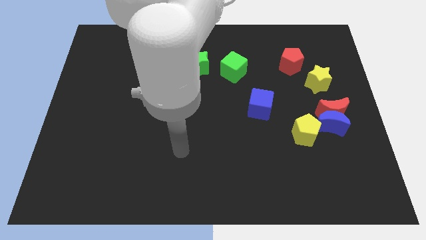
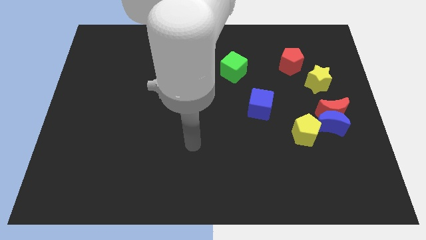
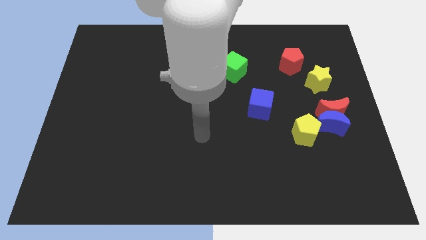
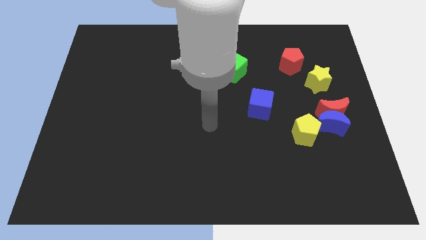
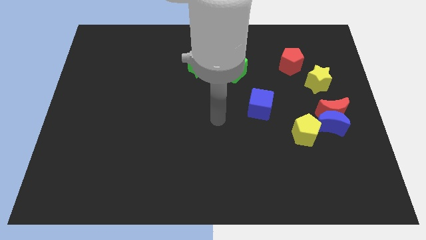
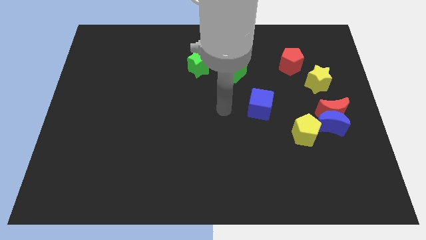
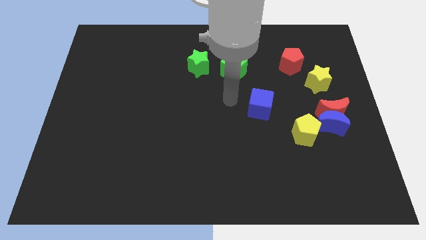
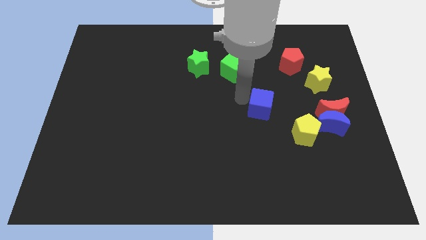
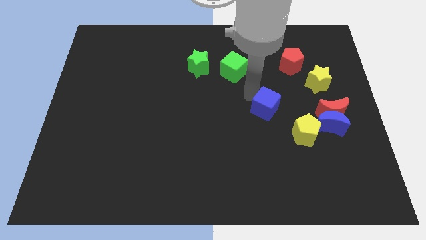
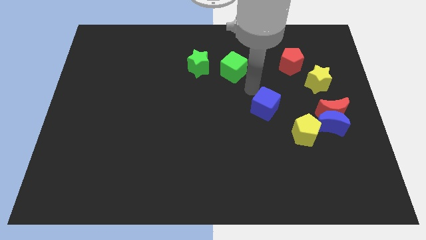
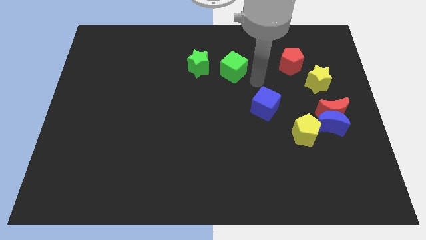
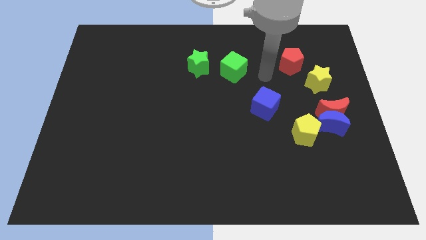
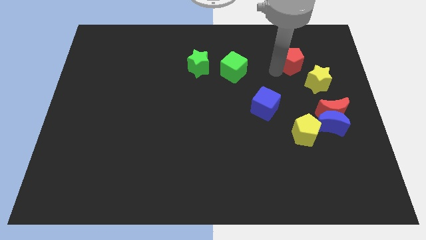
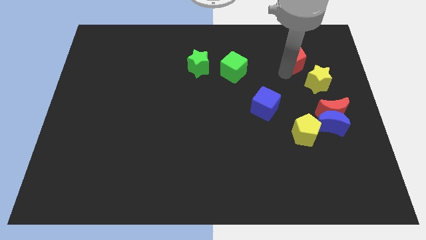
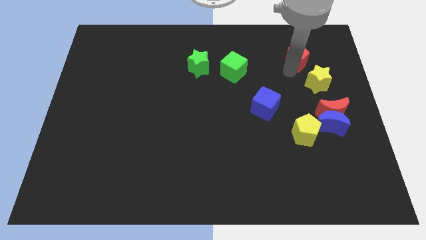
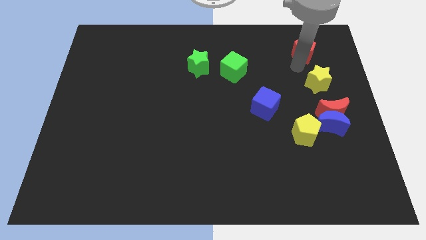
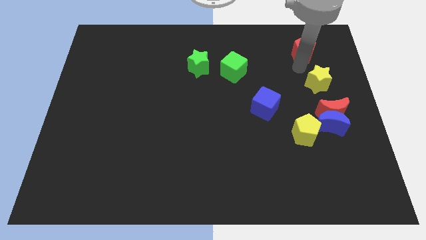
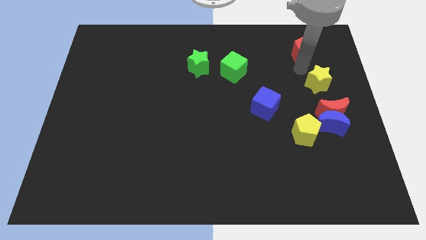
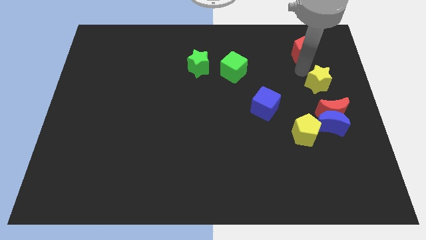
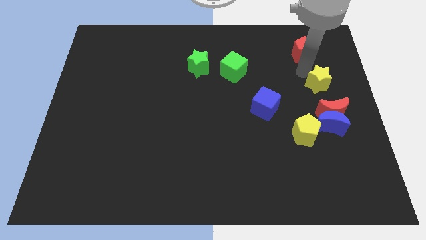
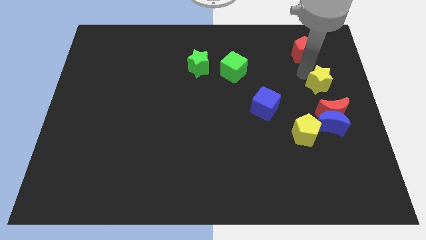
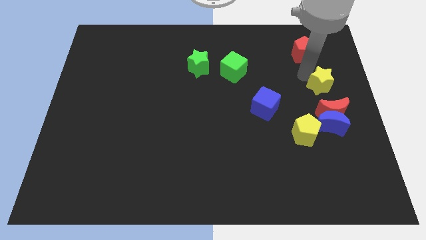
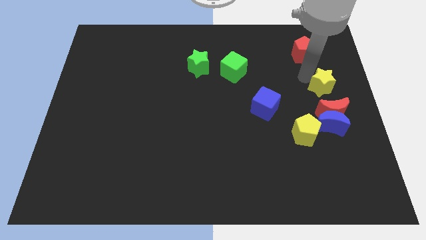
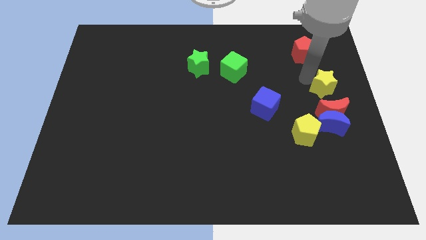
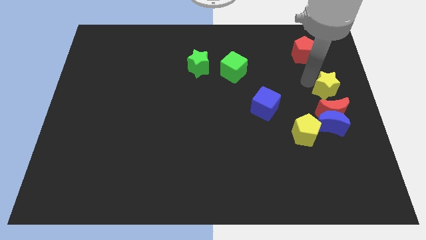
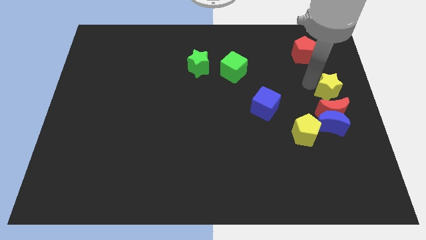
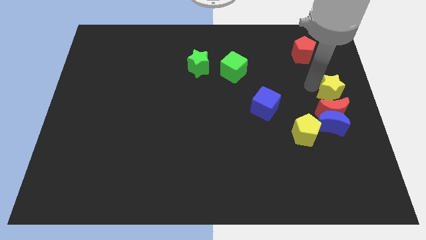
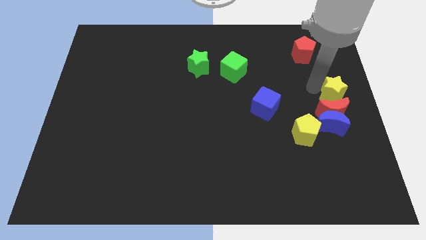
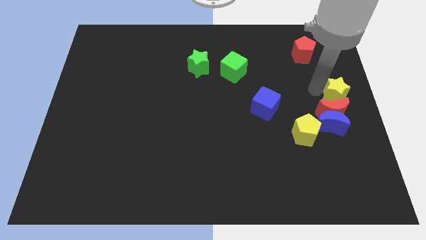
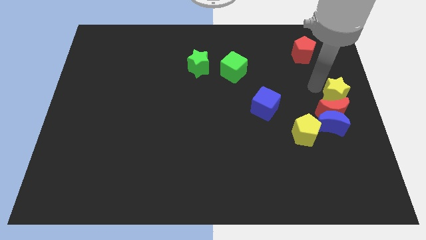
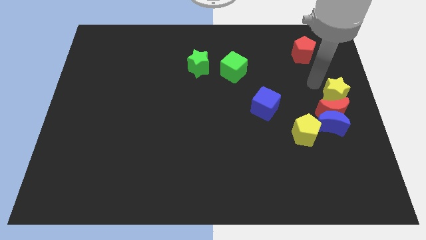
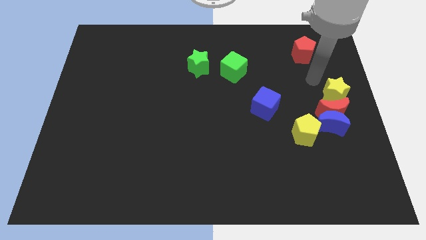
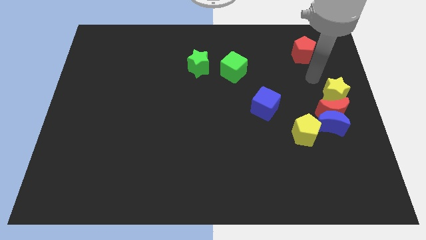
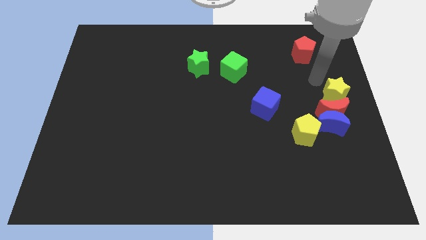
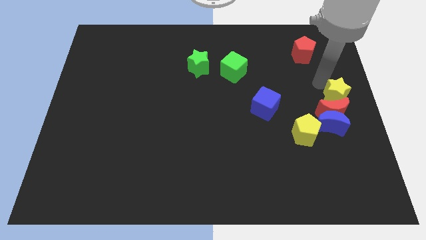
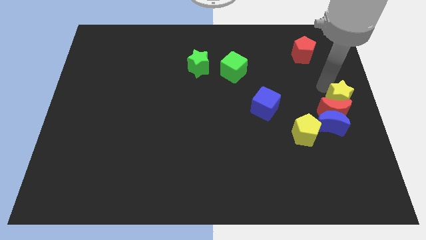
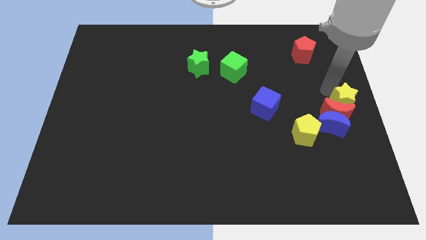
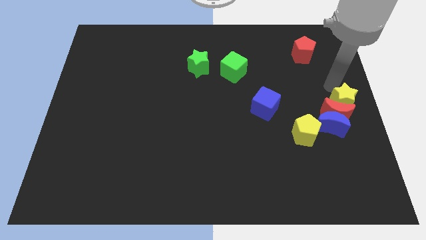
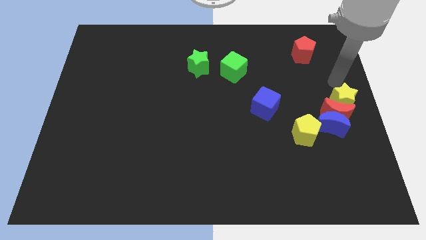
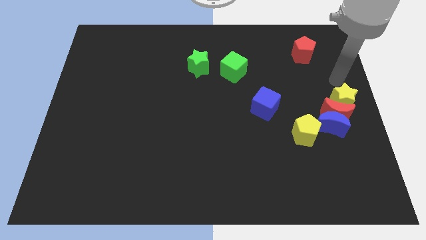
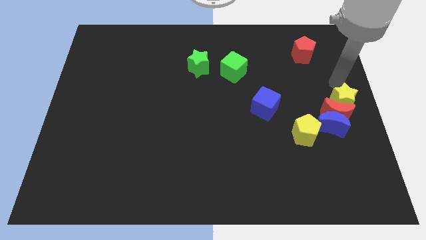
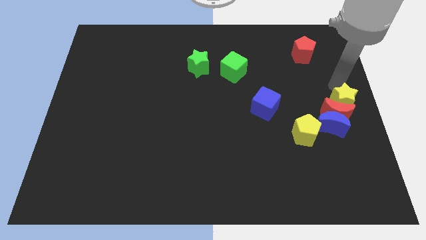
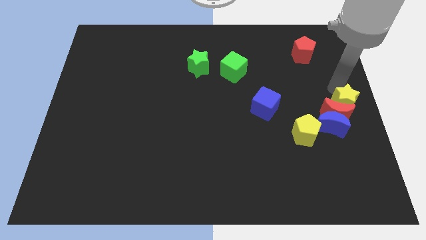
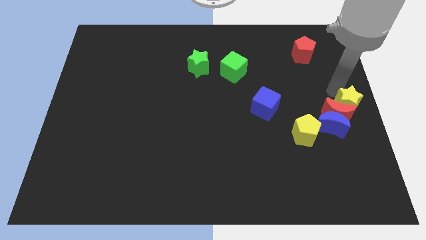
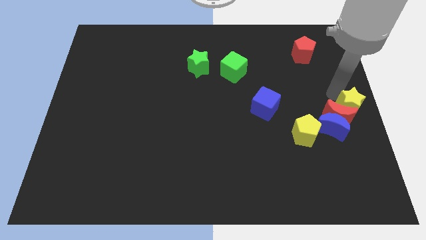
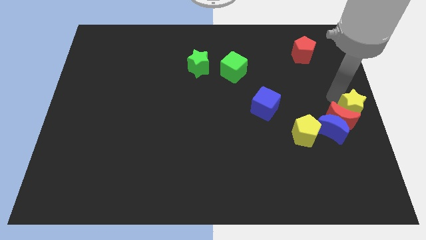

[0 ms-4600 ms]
slightly slide the yellow star down

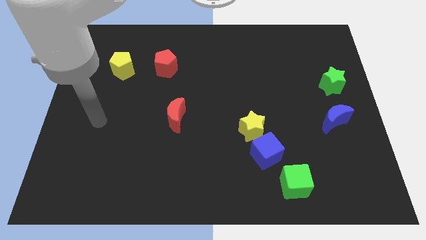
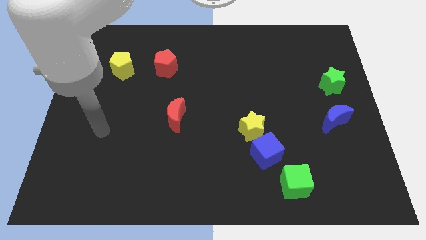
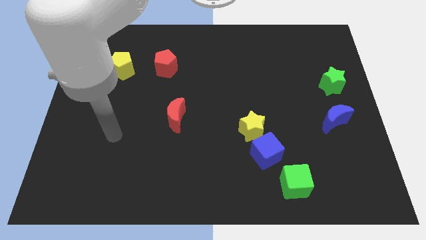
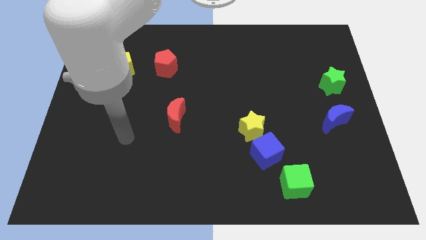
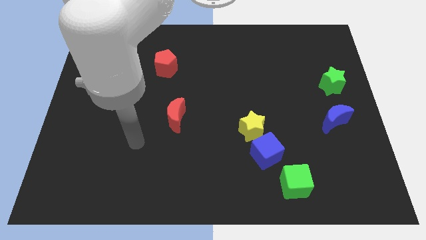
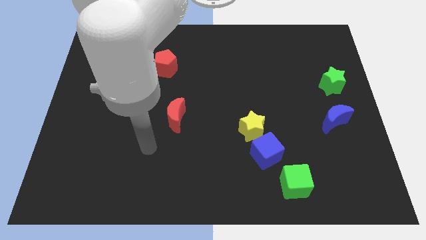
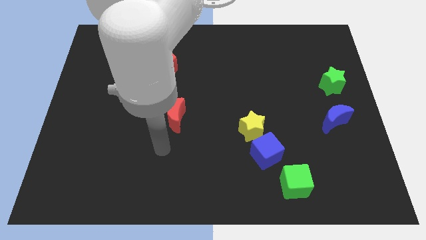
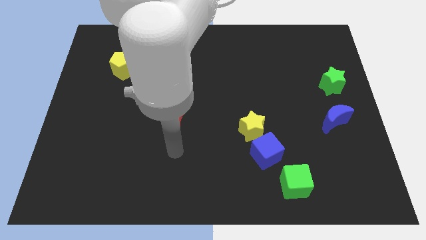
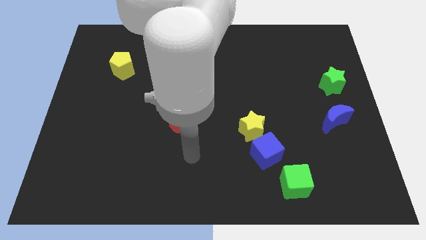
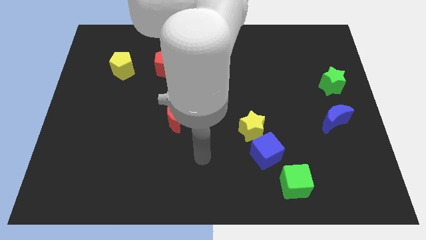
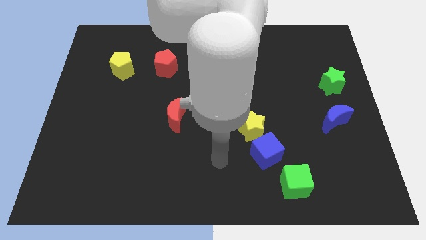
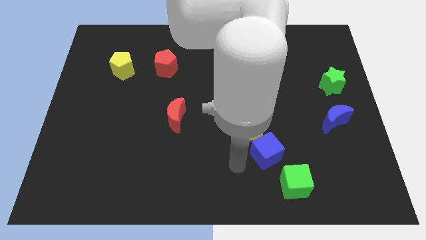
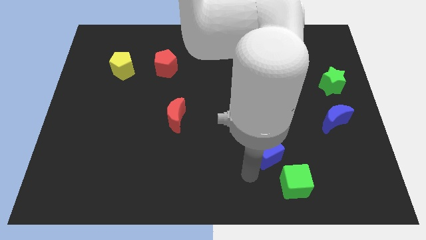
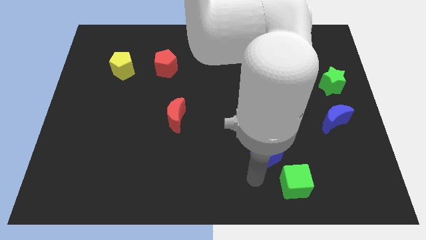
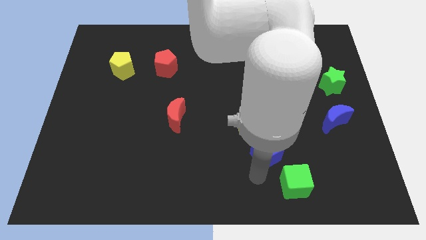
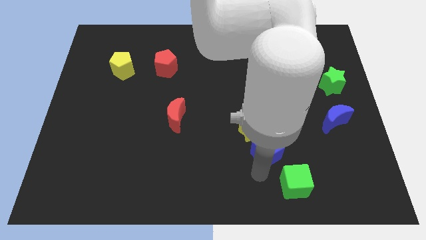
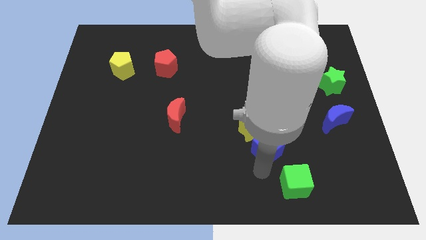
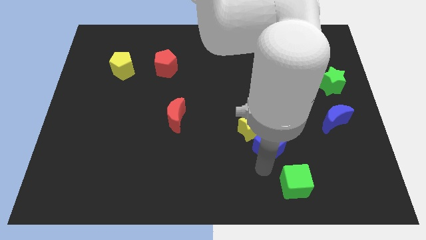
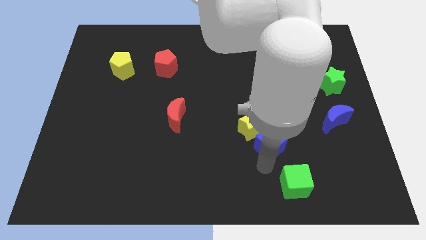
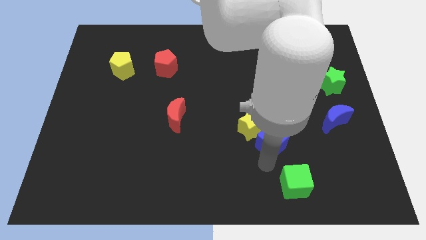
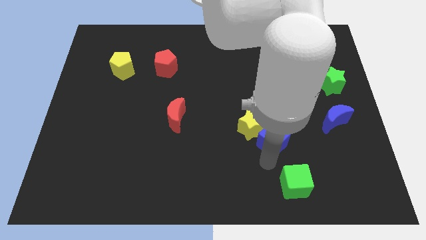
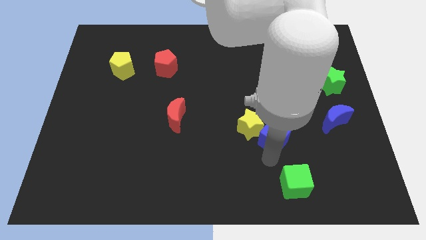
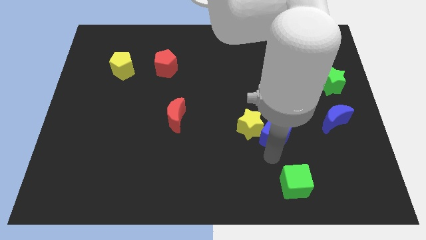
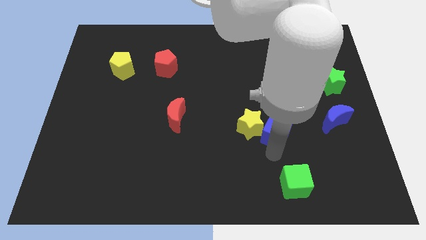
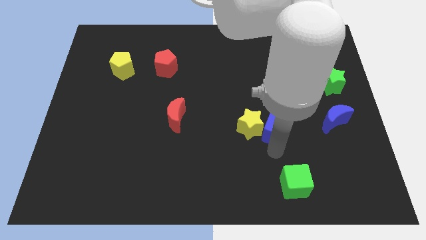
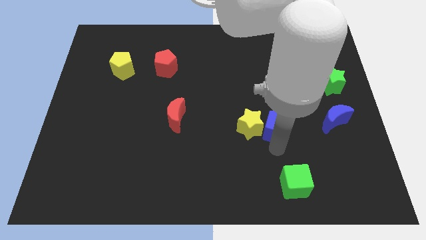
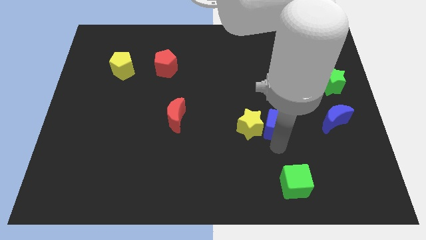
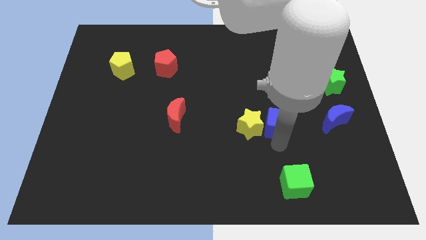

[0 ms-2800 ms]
slightly push the blue cube up

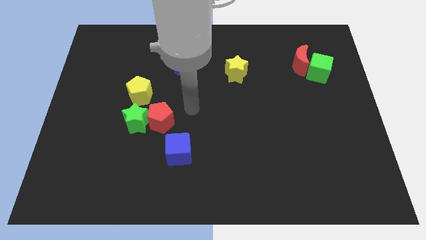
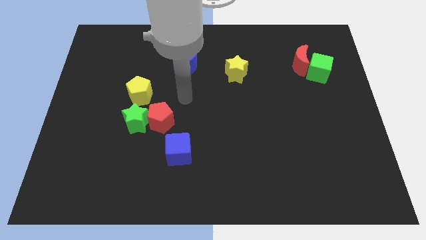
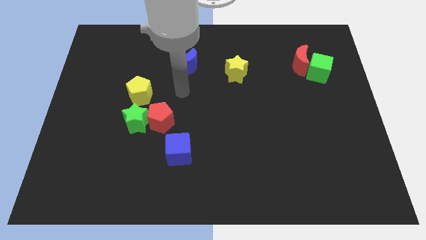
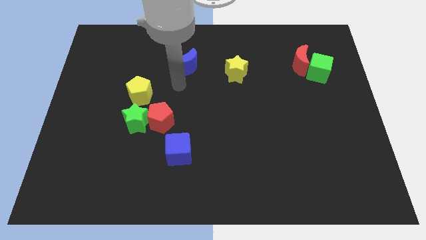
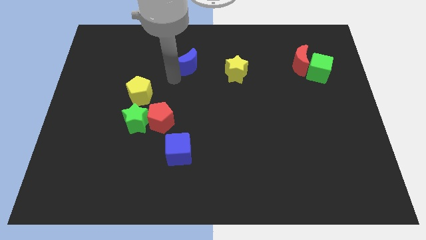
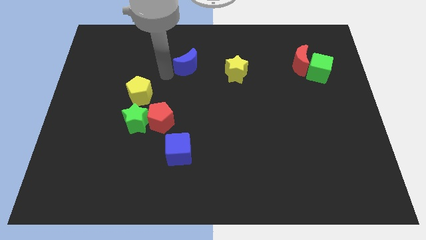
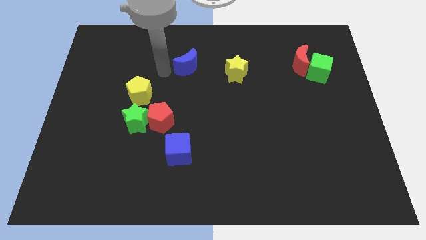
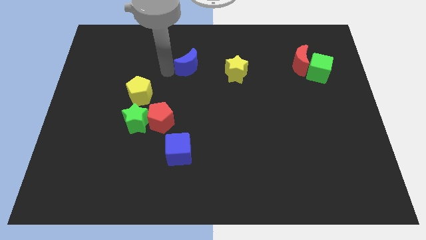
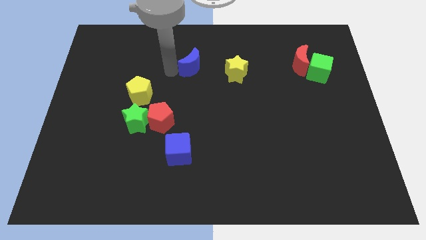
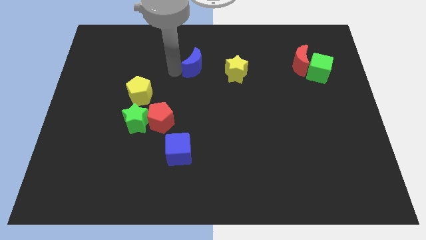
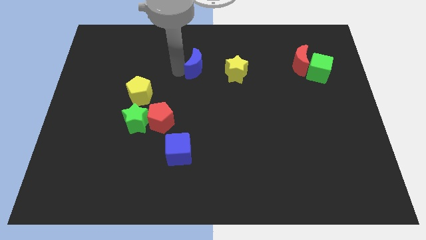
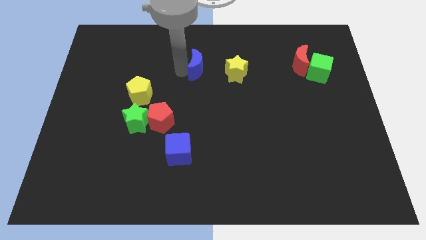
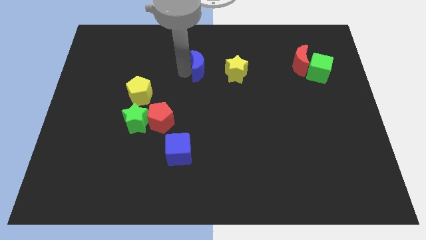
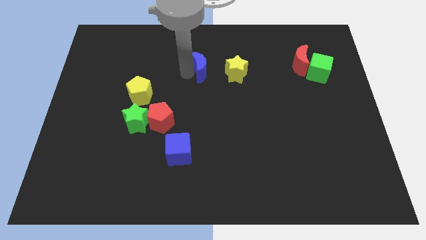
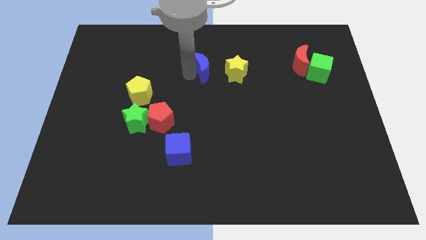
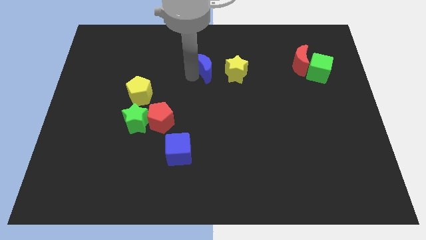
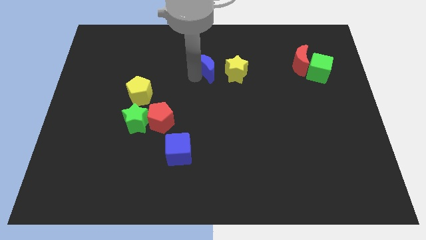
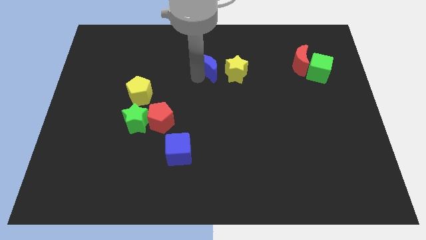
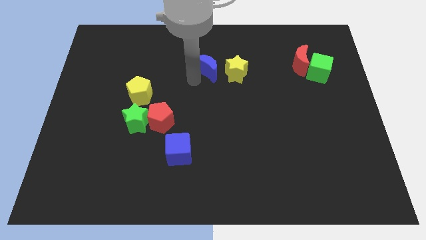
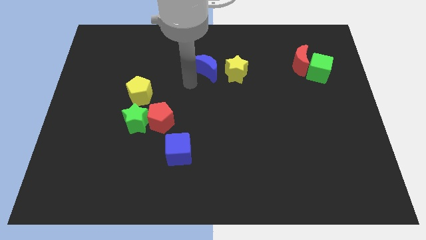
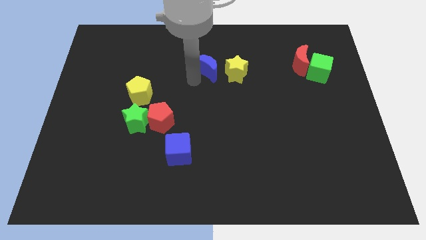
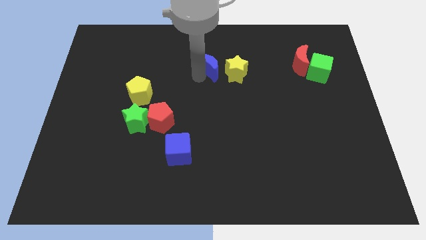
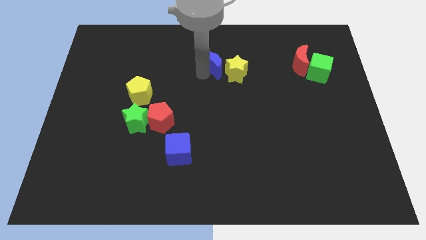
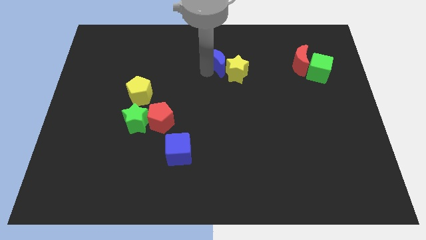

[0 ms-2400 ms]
slightly move the blue moon right
